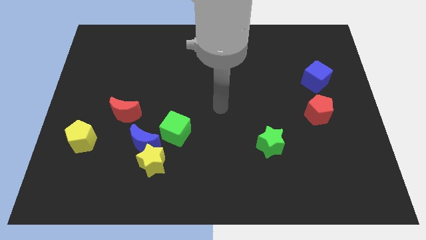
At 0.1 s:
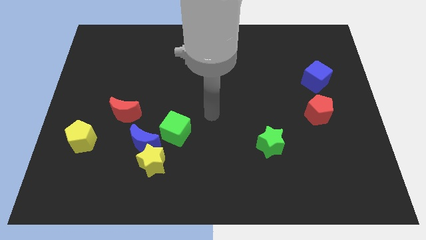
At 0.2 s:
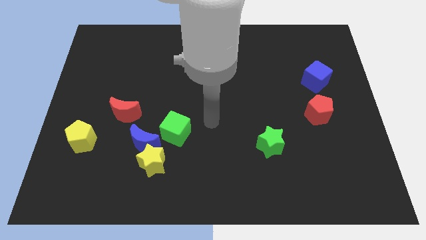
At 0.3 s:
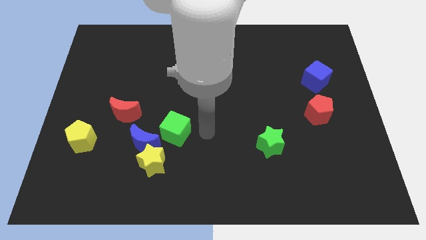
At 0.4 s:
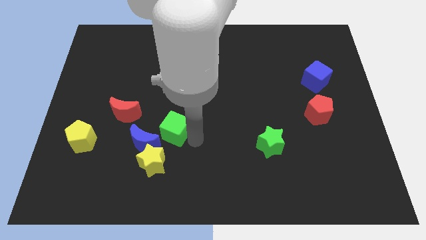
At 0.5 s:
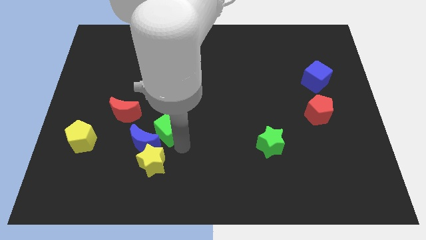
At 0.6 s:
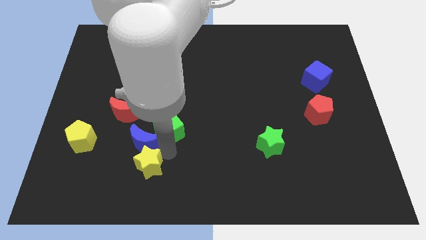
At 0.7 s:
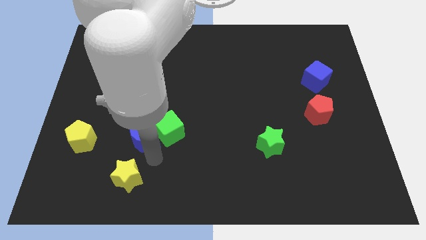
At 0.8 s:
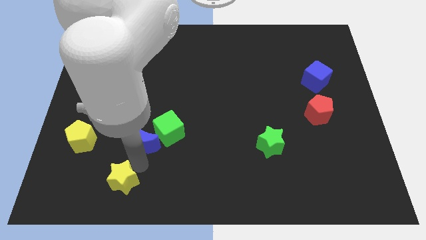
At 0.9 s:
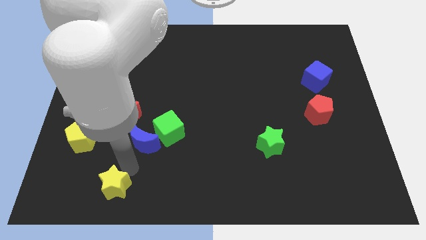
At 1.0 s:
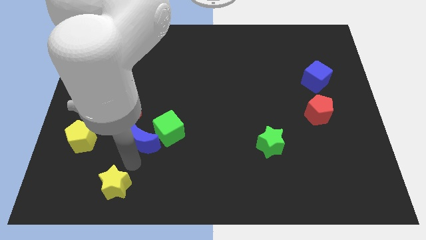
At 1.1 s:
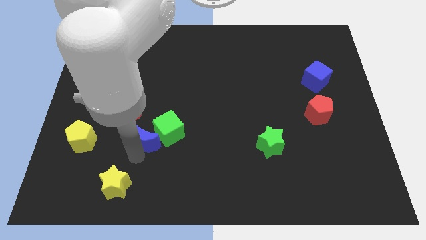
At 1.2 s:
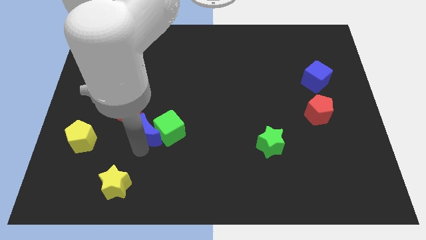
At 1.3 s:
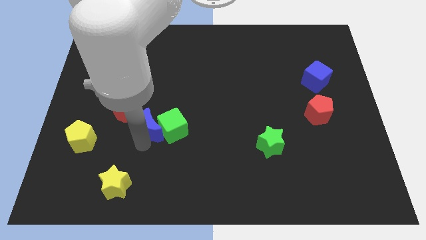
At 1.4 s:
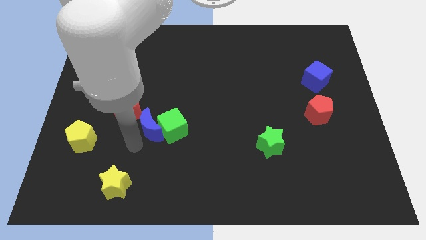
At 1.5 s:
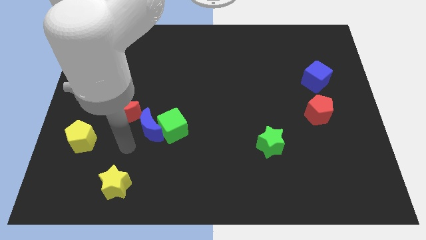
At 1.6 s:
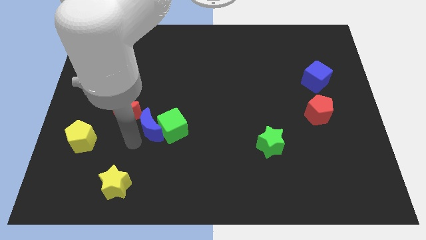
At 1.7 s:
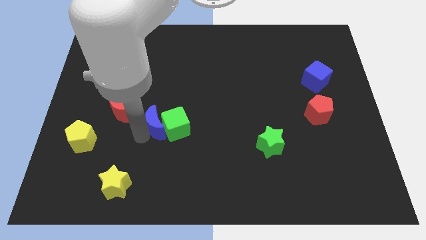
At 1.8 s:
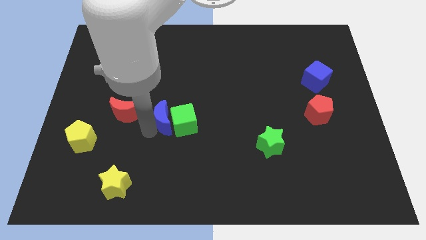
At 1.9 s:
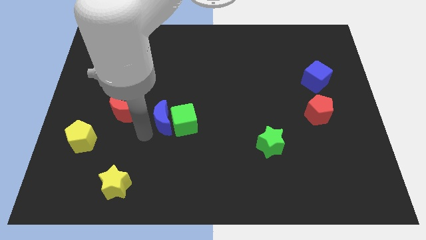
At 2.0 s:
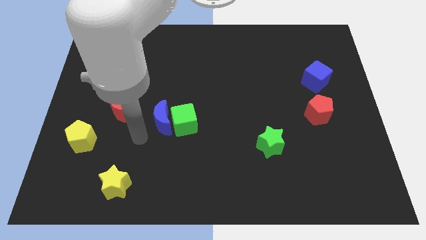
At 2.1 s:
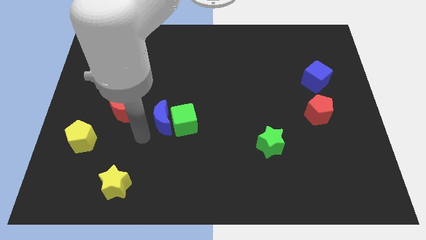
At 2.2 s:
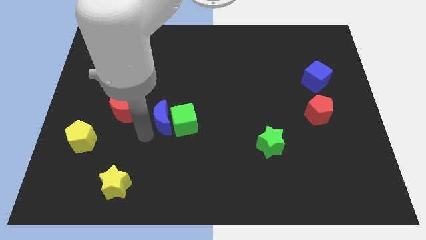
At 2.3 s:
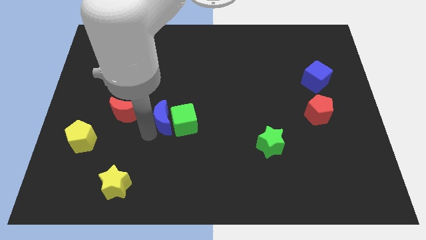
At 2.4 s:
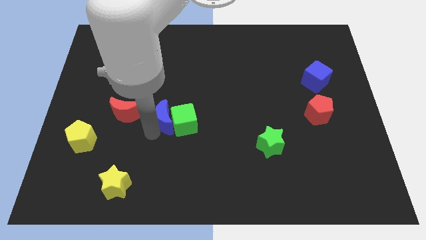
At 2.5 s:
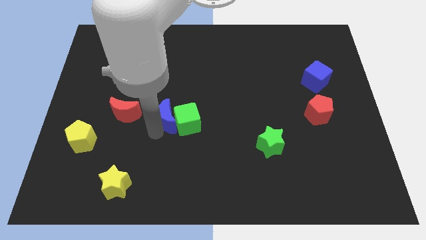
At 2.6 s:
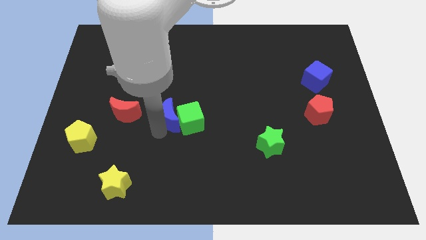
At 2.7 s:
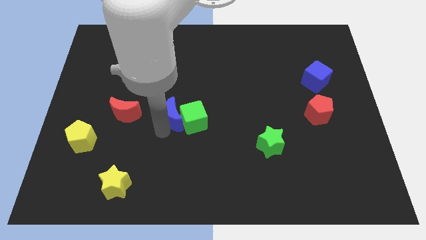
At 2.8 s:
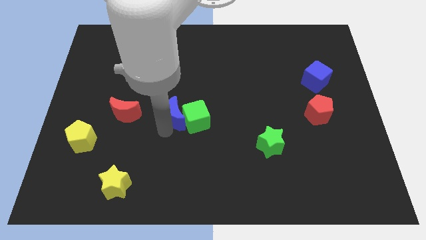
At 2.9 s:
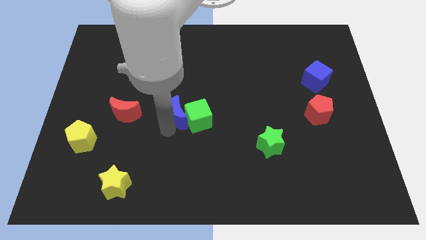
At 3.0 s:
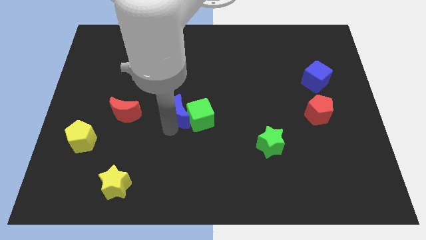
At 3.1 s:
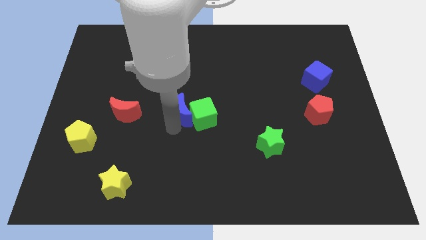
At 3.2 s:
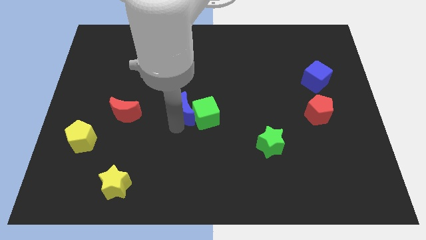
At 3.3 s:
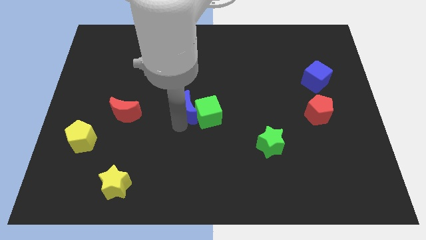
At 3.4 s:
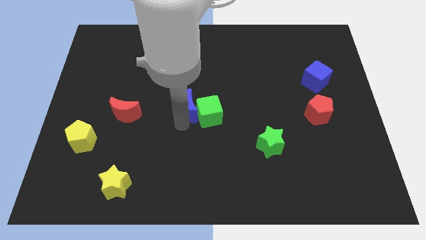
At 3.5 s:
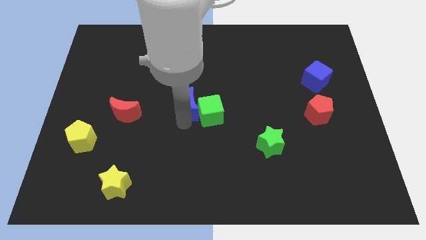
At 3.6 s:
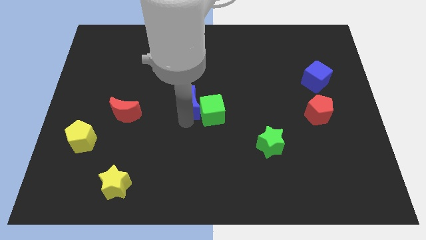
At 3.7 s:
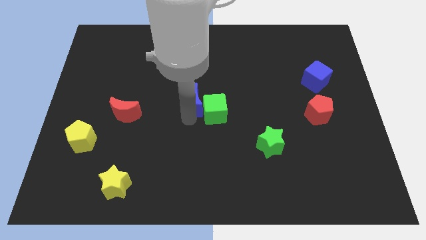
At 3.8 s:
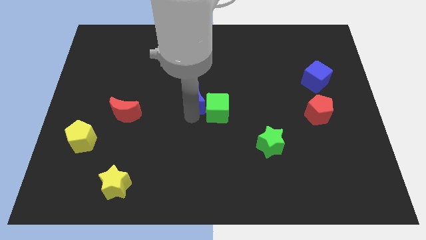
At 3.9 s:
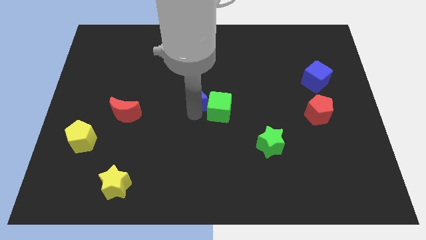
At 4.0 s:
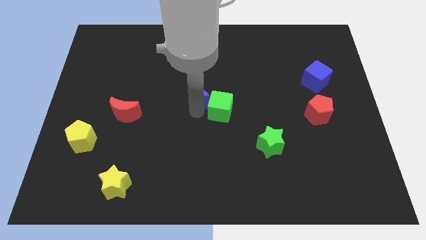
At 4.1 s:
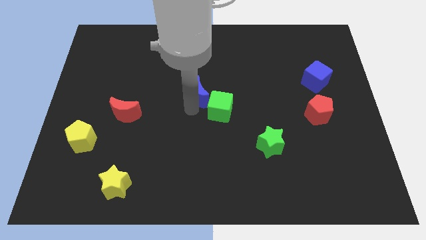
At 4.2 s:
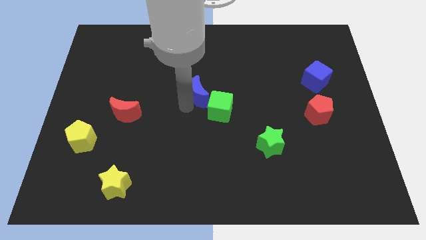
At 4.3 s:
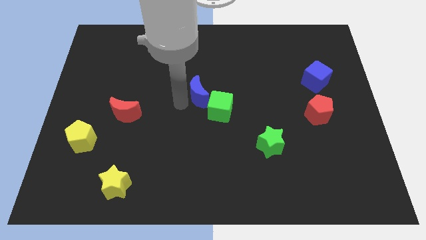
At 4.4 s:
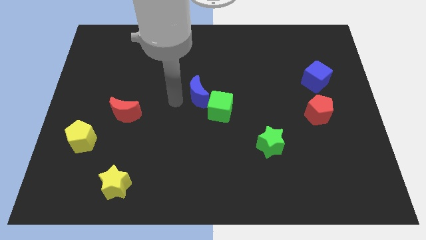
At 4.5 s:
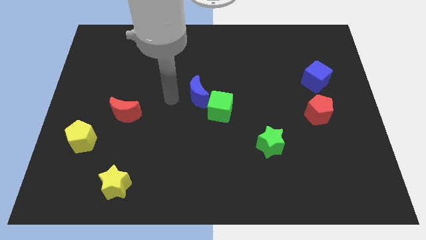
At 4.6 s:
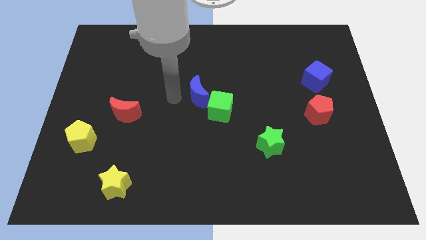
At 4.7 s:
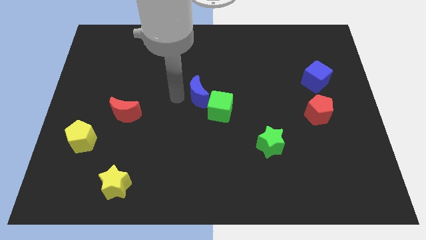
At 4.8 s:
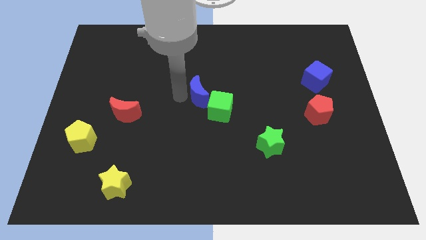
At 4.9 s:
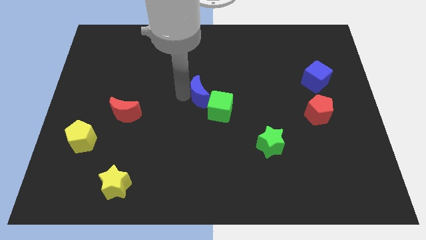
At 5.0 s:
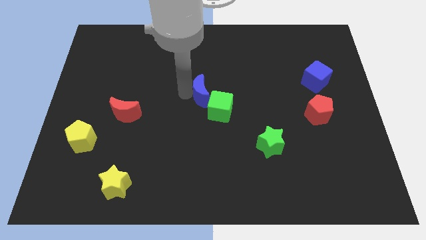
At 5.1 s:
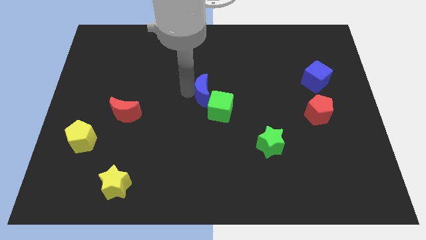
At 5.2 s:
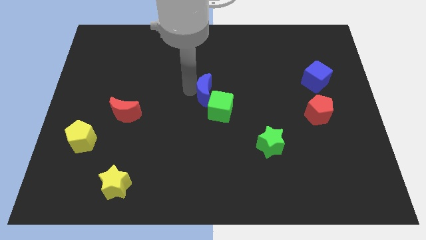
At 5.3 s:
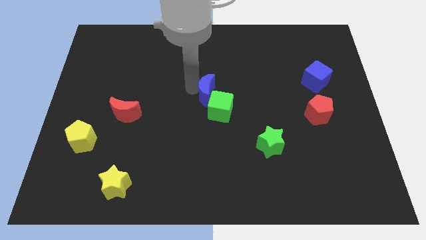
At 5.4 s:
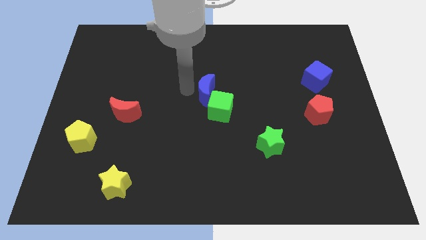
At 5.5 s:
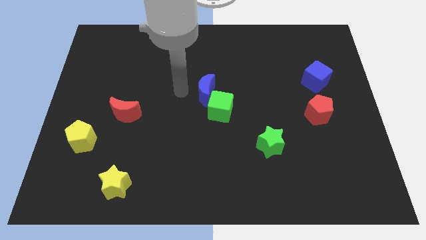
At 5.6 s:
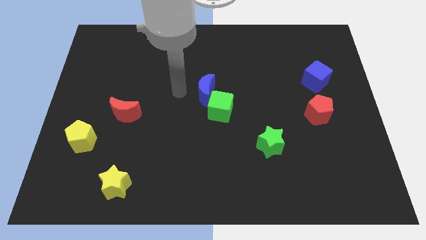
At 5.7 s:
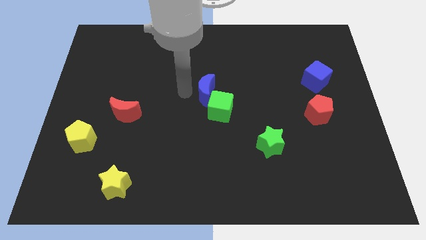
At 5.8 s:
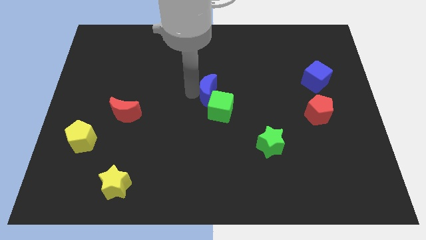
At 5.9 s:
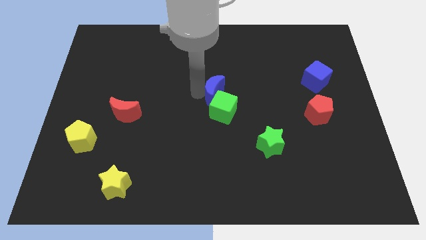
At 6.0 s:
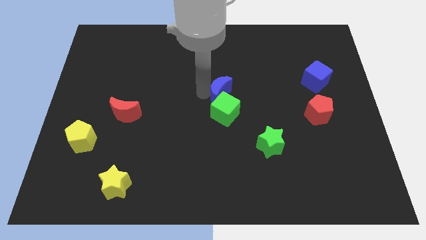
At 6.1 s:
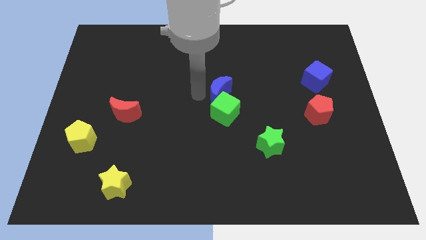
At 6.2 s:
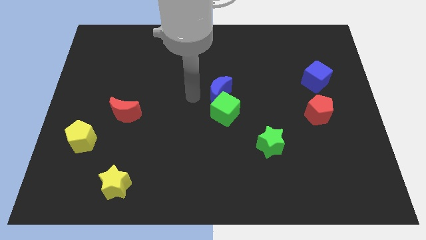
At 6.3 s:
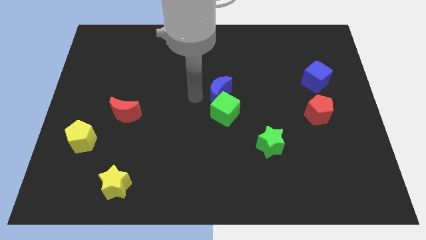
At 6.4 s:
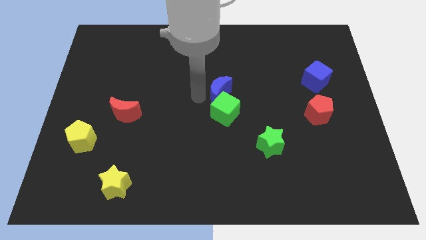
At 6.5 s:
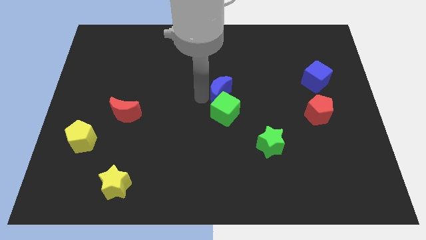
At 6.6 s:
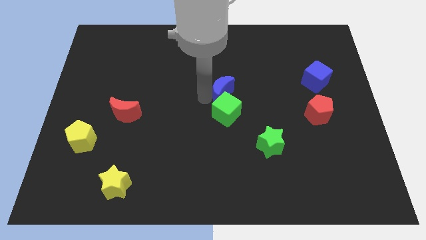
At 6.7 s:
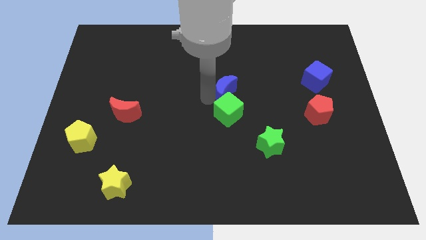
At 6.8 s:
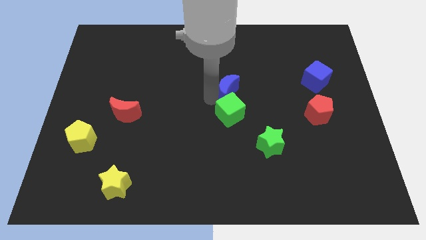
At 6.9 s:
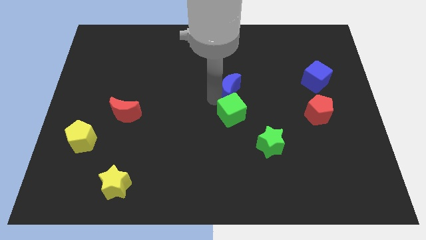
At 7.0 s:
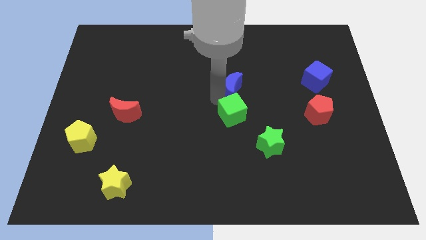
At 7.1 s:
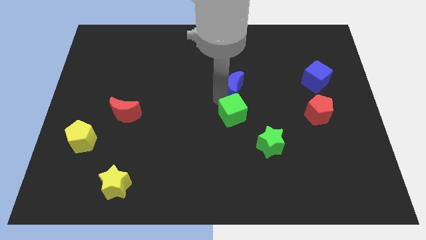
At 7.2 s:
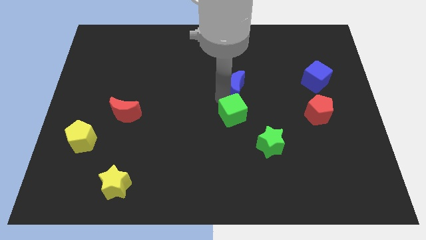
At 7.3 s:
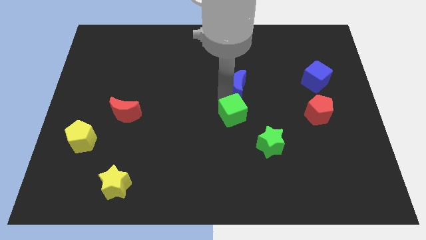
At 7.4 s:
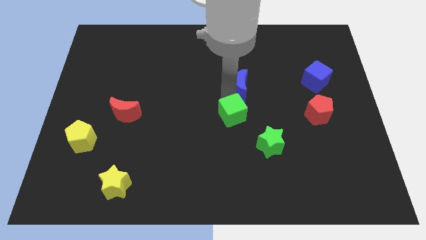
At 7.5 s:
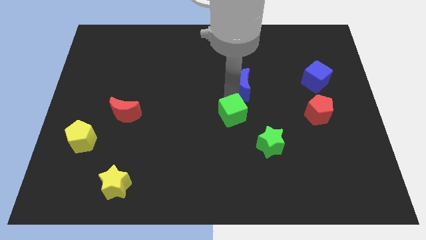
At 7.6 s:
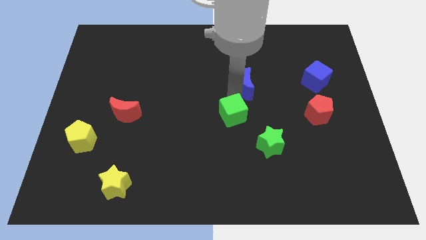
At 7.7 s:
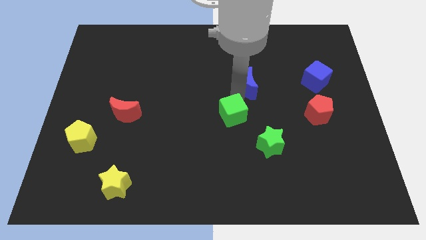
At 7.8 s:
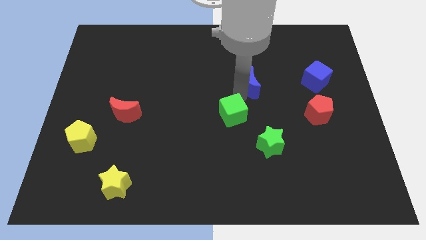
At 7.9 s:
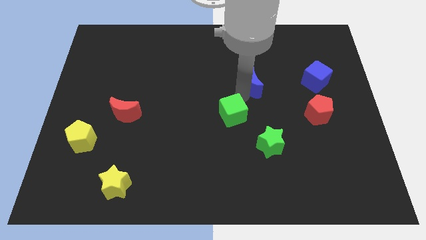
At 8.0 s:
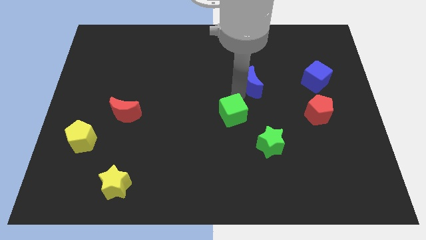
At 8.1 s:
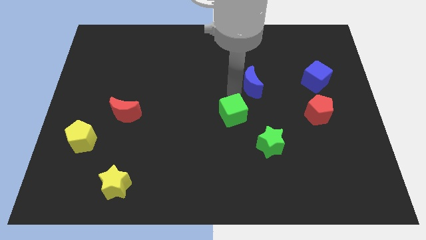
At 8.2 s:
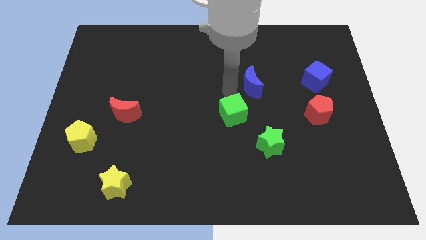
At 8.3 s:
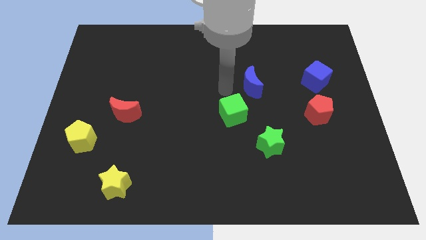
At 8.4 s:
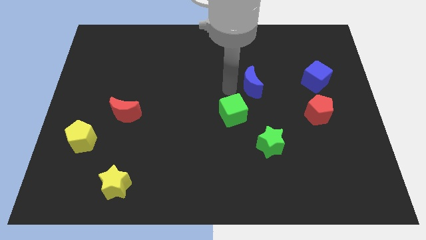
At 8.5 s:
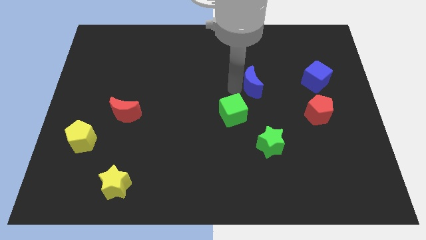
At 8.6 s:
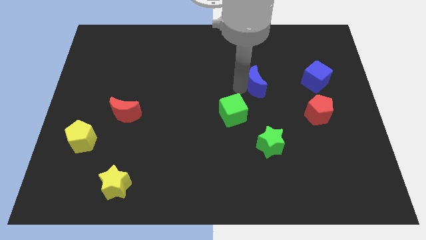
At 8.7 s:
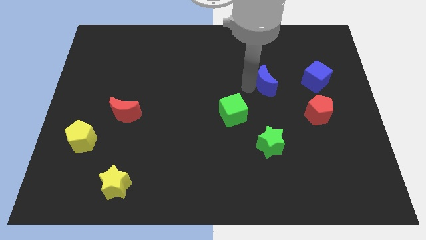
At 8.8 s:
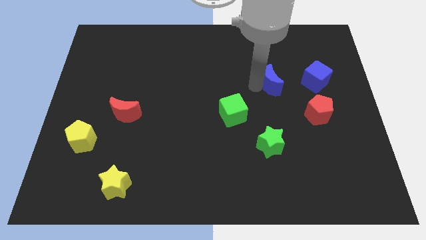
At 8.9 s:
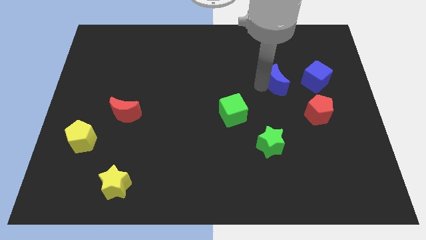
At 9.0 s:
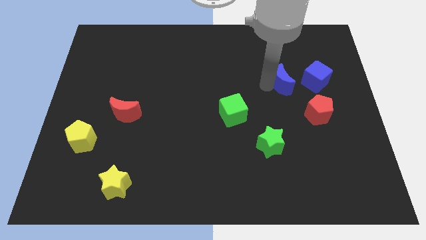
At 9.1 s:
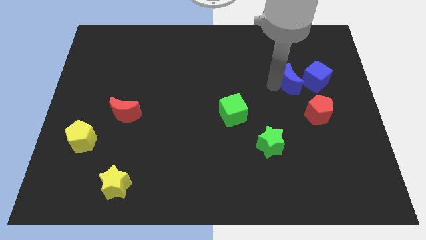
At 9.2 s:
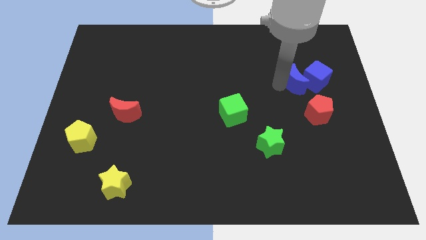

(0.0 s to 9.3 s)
slide the blue moon close to the blue cube
